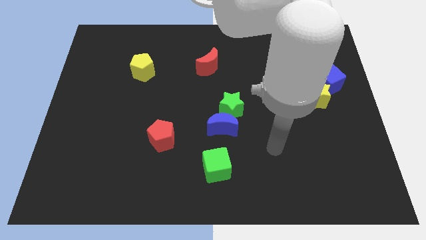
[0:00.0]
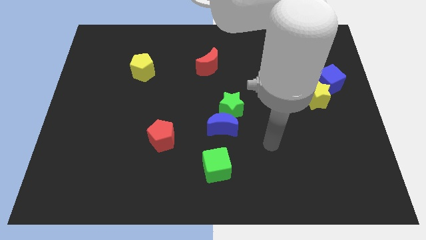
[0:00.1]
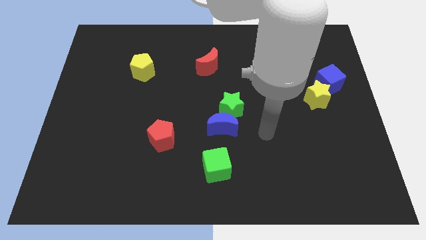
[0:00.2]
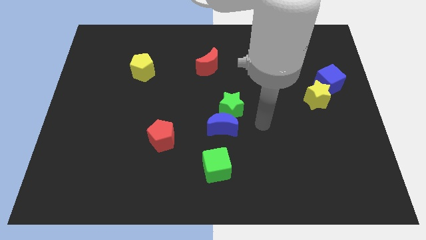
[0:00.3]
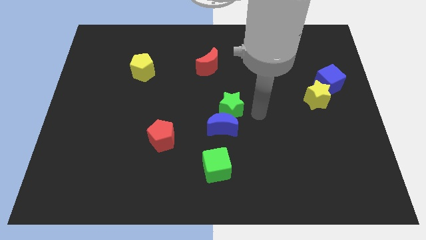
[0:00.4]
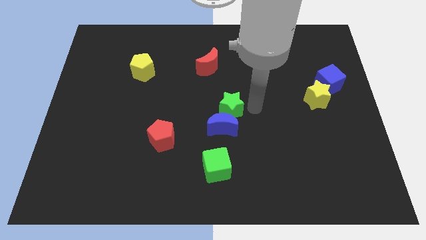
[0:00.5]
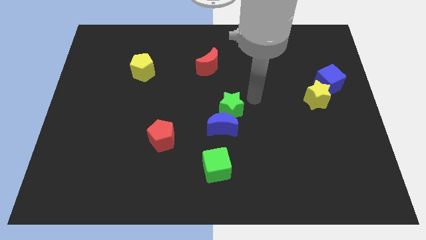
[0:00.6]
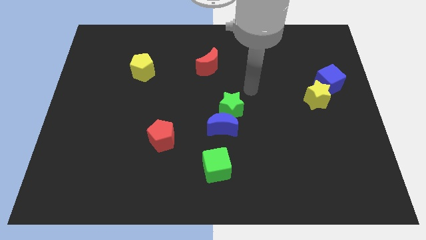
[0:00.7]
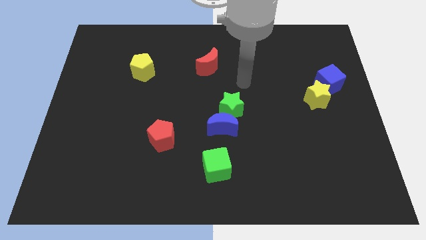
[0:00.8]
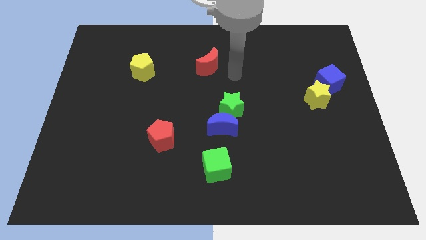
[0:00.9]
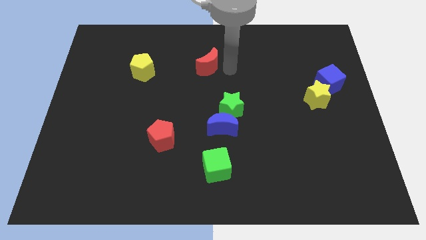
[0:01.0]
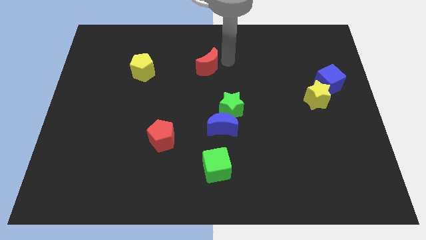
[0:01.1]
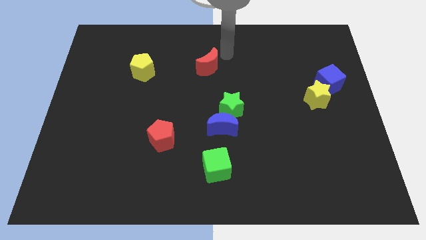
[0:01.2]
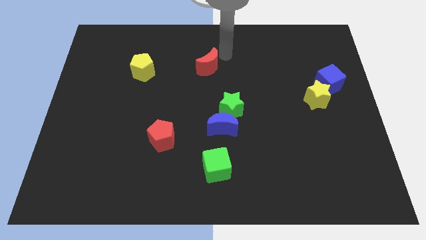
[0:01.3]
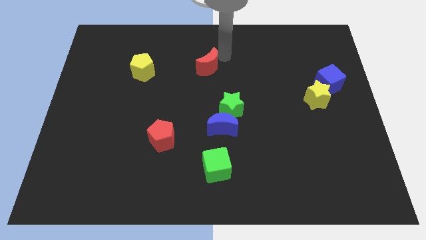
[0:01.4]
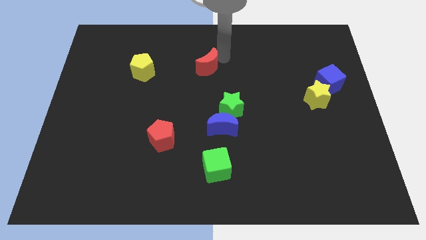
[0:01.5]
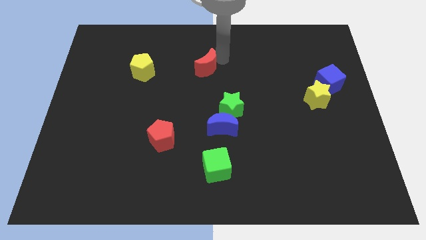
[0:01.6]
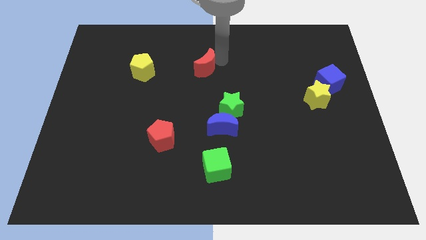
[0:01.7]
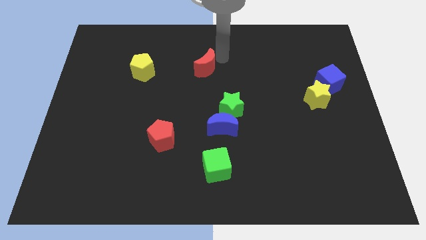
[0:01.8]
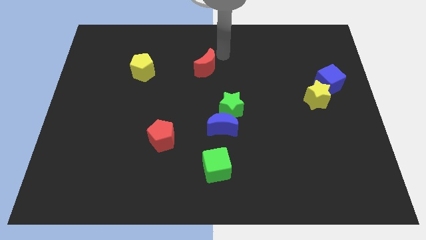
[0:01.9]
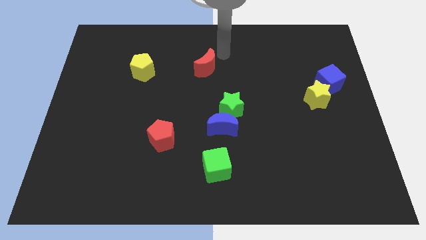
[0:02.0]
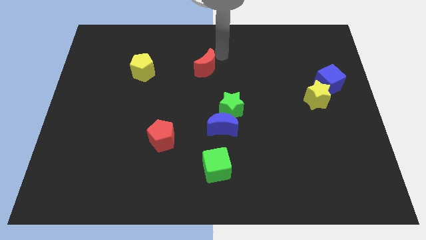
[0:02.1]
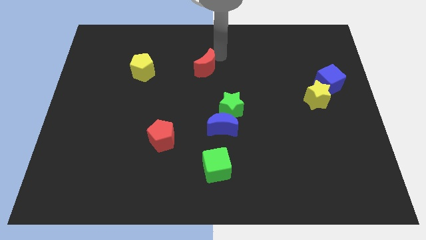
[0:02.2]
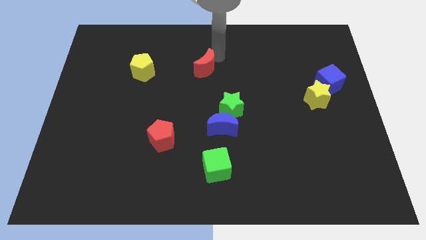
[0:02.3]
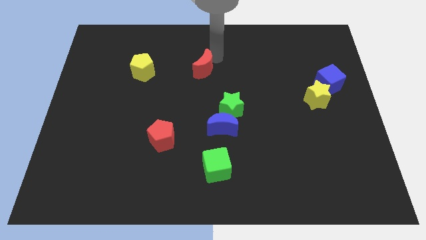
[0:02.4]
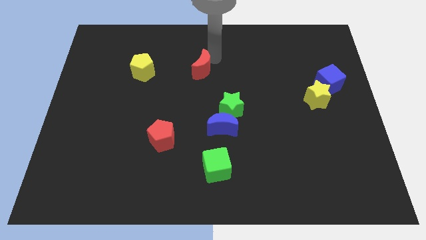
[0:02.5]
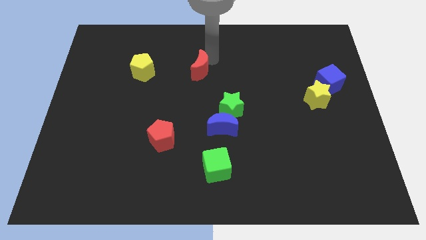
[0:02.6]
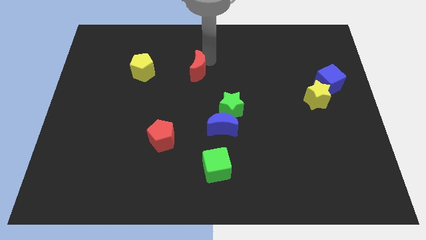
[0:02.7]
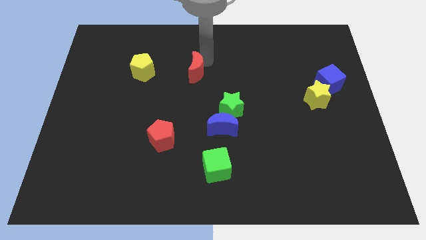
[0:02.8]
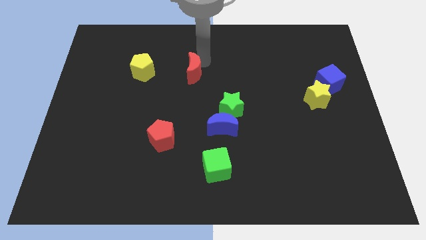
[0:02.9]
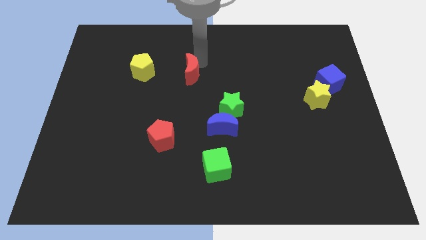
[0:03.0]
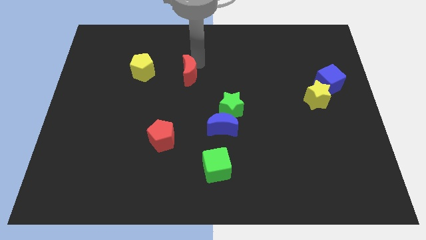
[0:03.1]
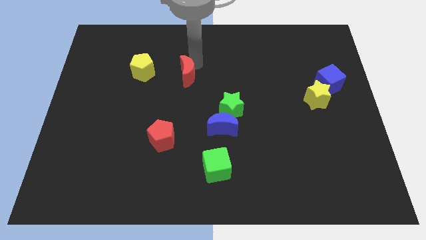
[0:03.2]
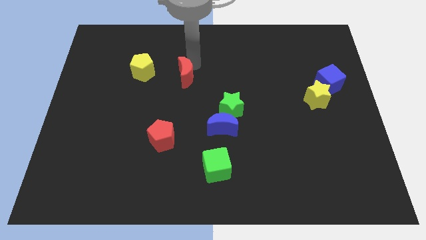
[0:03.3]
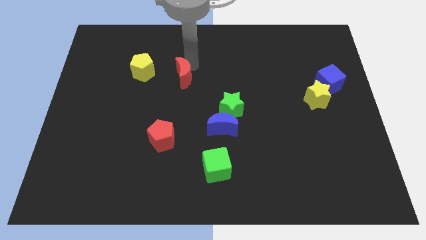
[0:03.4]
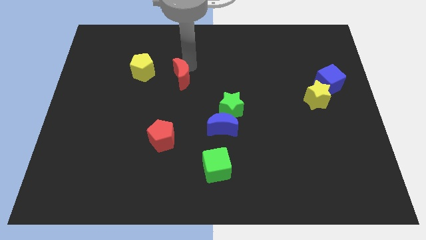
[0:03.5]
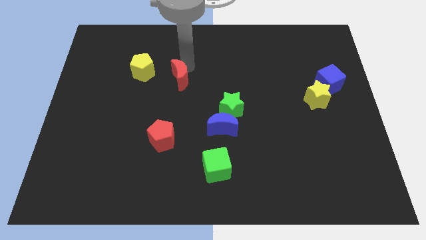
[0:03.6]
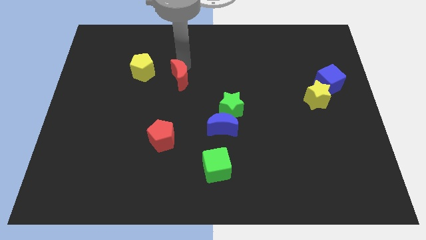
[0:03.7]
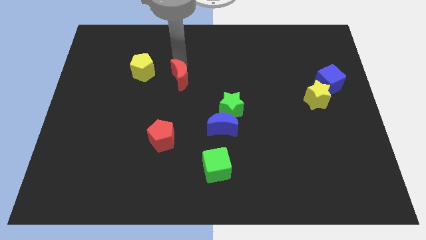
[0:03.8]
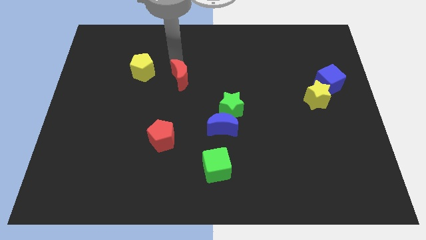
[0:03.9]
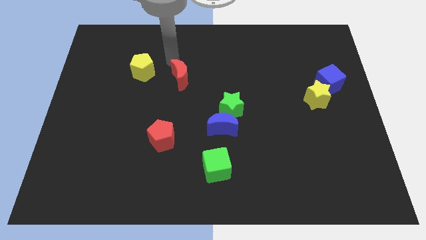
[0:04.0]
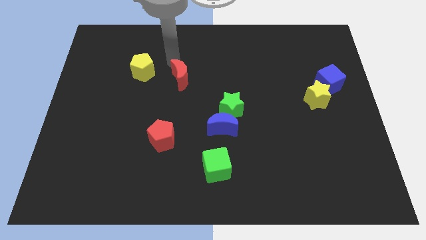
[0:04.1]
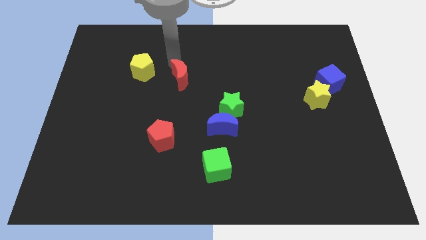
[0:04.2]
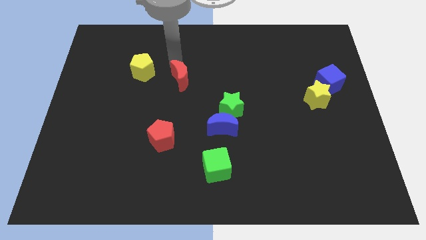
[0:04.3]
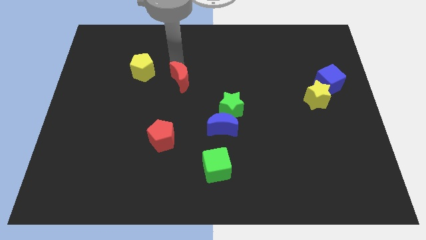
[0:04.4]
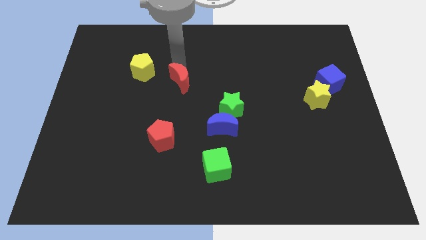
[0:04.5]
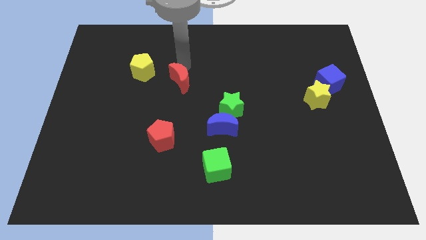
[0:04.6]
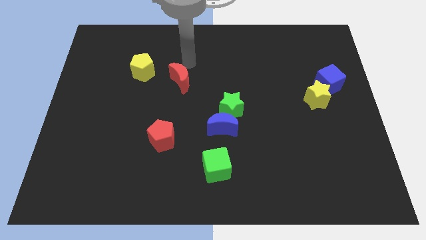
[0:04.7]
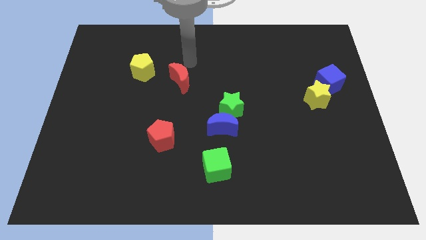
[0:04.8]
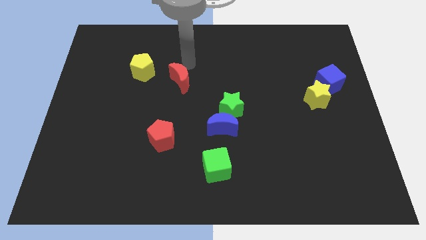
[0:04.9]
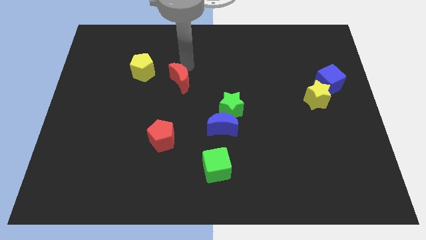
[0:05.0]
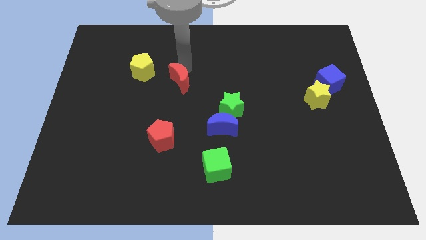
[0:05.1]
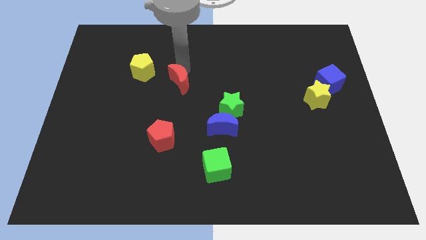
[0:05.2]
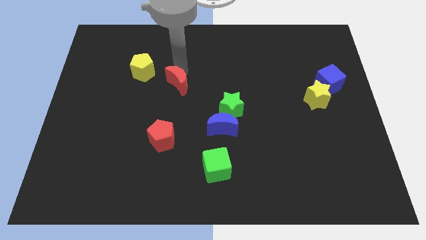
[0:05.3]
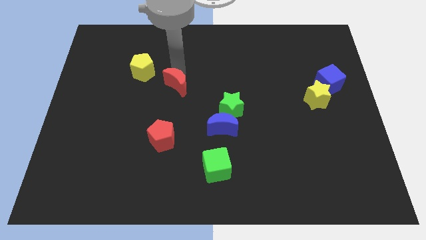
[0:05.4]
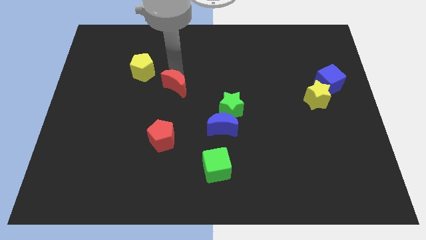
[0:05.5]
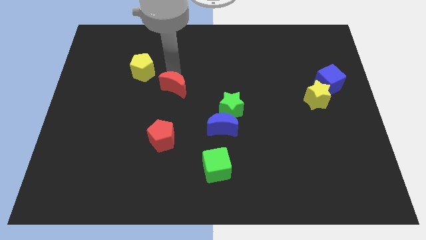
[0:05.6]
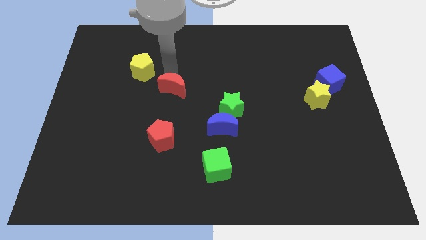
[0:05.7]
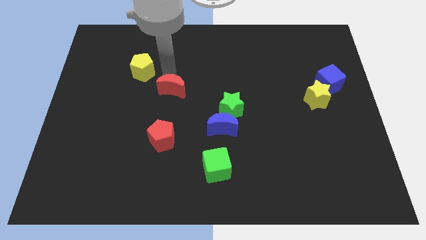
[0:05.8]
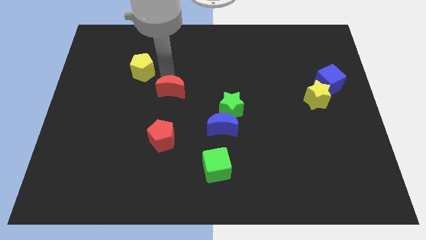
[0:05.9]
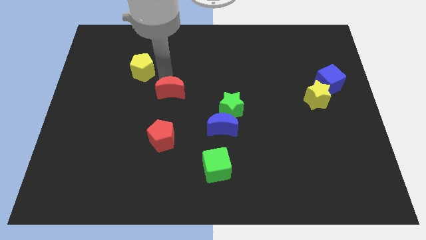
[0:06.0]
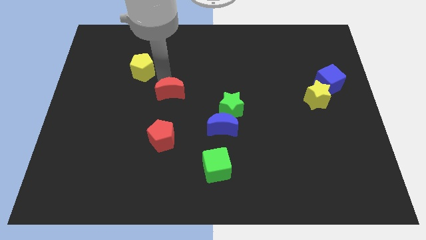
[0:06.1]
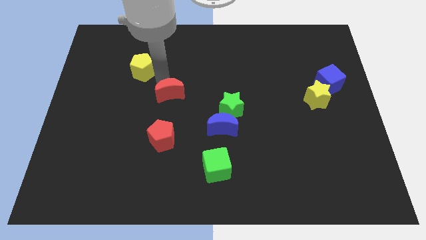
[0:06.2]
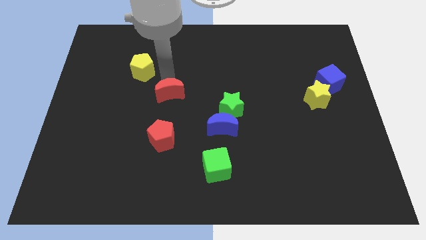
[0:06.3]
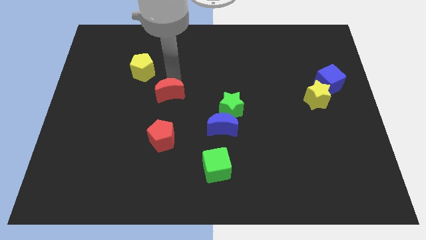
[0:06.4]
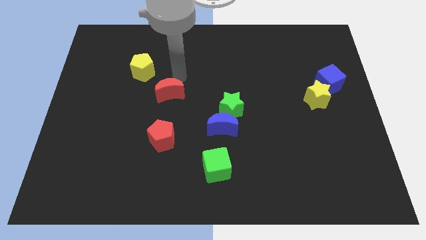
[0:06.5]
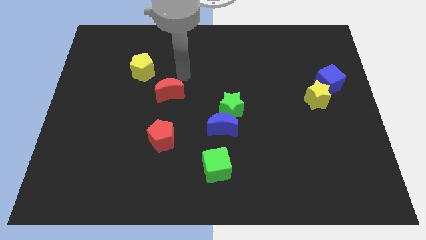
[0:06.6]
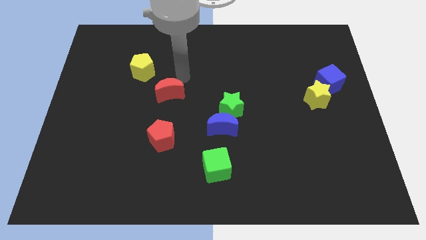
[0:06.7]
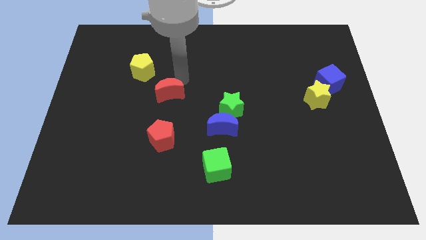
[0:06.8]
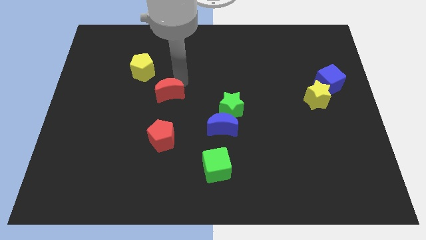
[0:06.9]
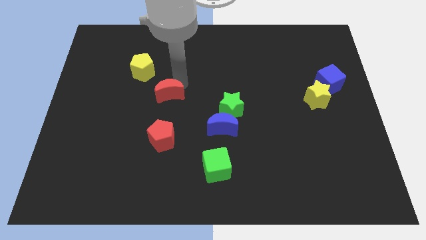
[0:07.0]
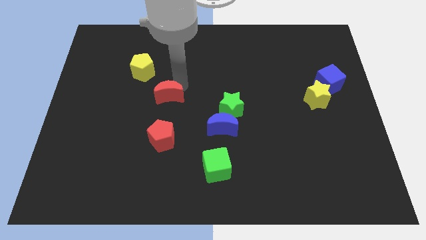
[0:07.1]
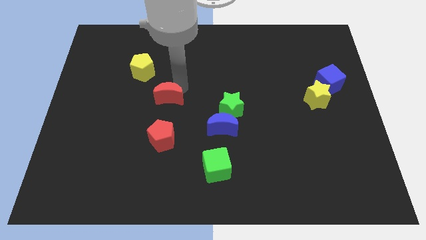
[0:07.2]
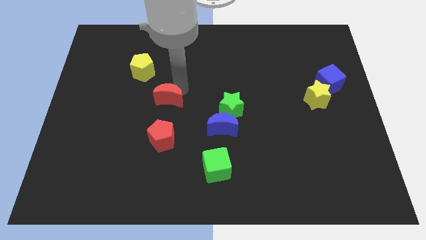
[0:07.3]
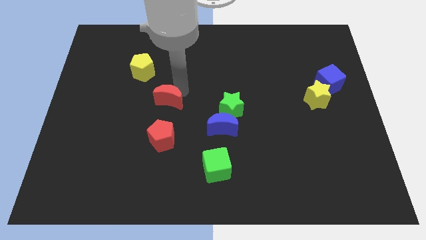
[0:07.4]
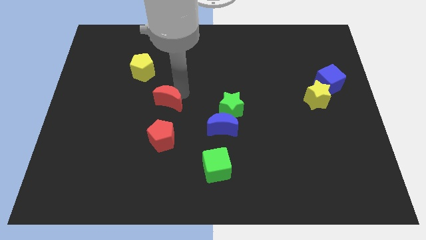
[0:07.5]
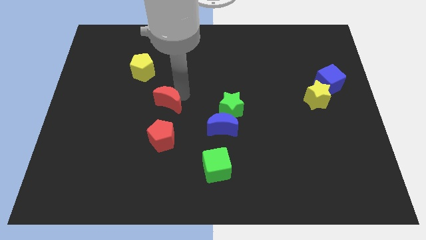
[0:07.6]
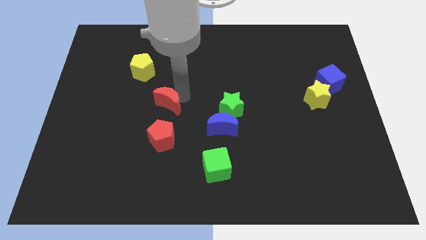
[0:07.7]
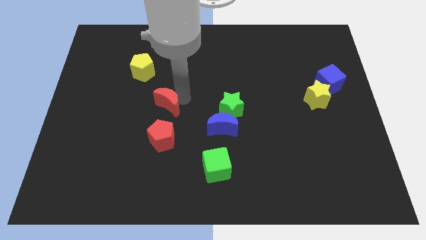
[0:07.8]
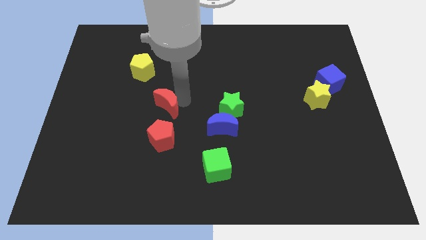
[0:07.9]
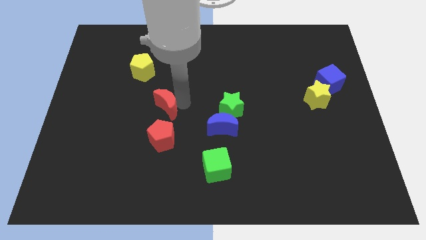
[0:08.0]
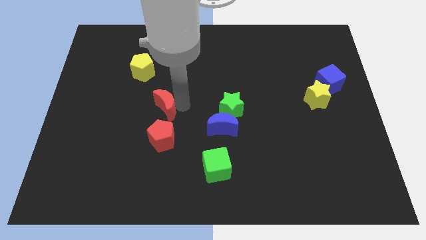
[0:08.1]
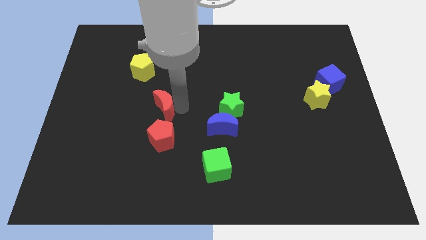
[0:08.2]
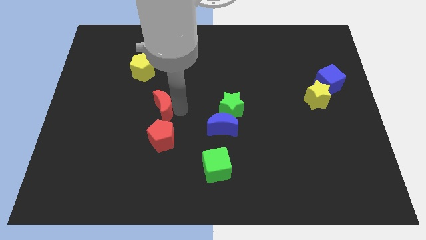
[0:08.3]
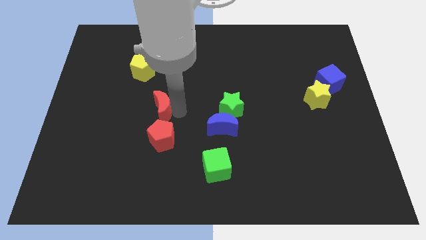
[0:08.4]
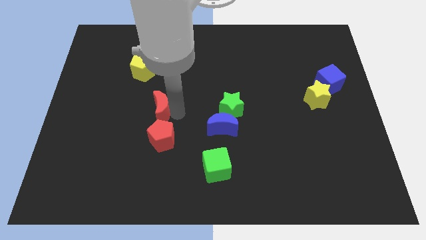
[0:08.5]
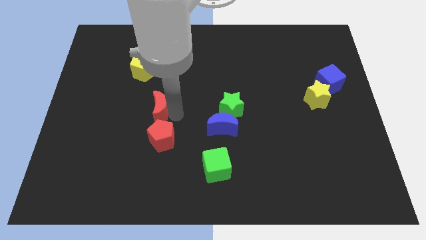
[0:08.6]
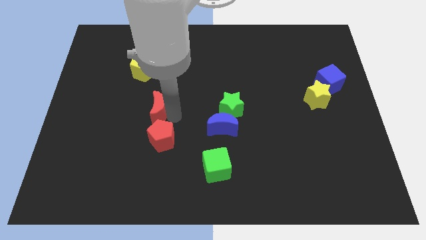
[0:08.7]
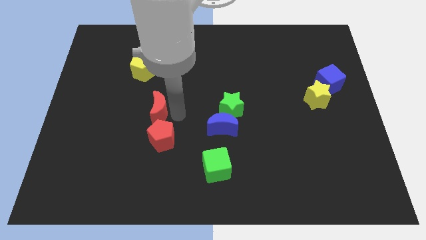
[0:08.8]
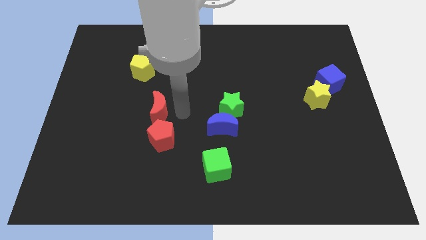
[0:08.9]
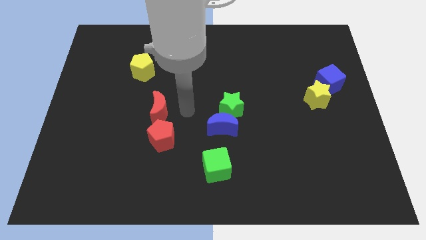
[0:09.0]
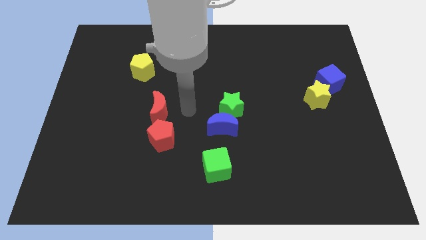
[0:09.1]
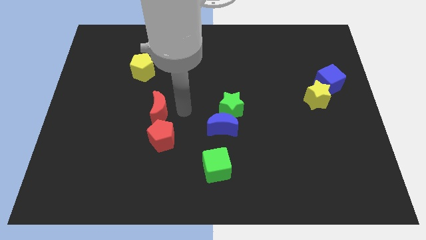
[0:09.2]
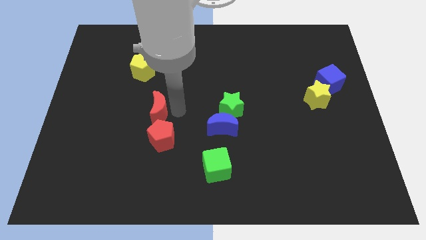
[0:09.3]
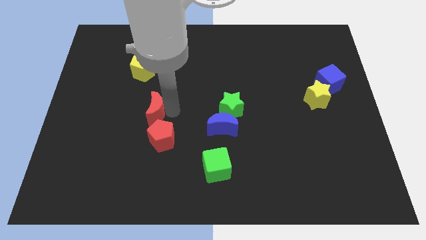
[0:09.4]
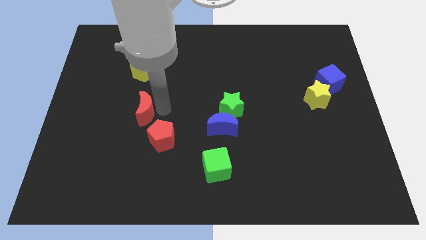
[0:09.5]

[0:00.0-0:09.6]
move the red moon downwards and left diagonally
